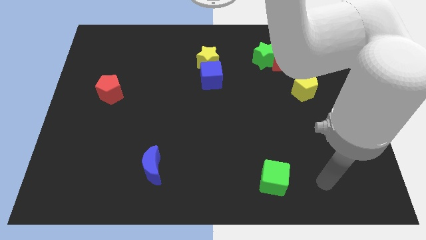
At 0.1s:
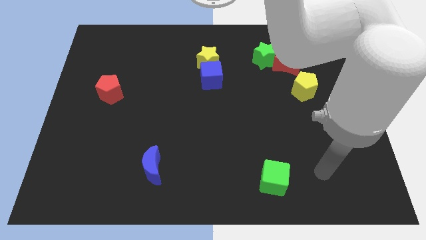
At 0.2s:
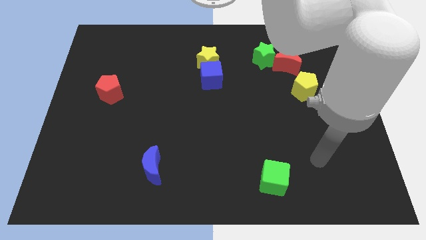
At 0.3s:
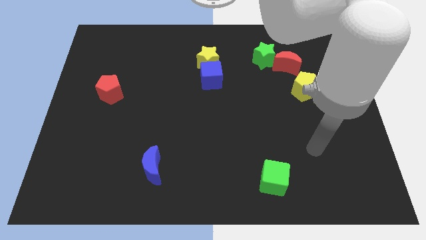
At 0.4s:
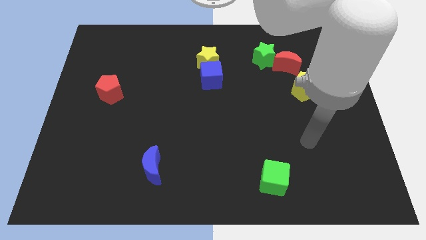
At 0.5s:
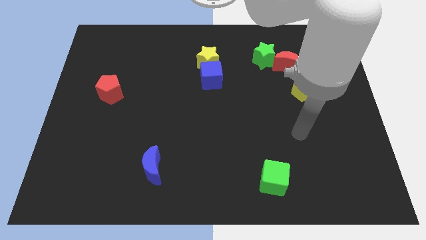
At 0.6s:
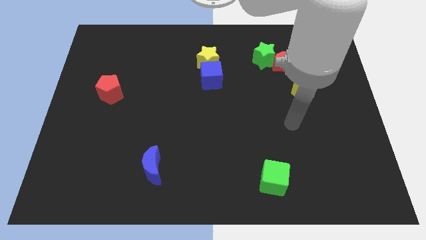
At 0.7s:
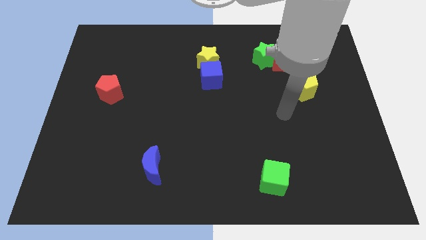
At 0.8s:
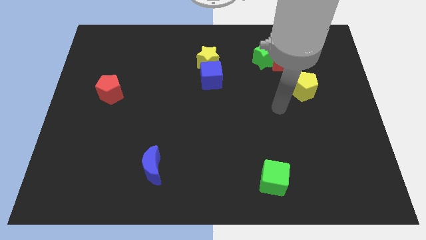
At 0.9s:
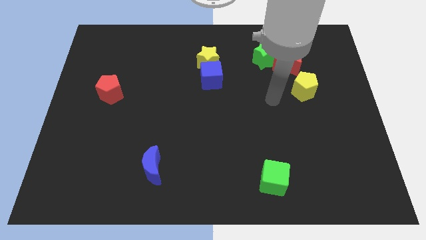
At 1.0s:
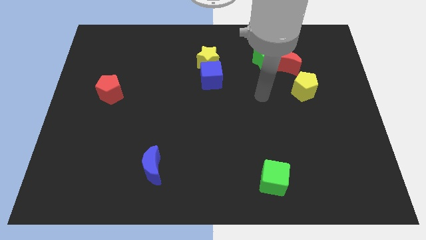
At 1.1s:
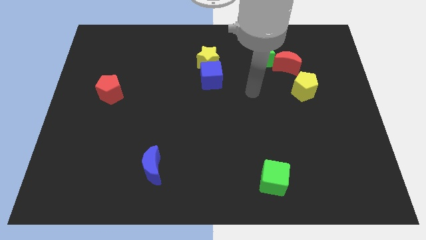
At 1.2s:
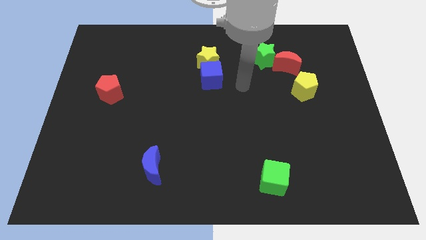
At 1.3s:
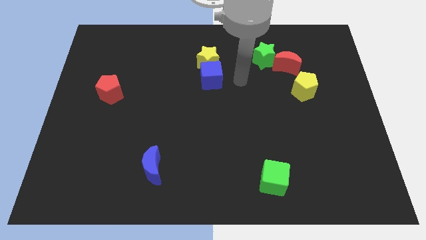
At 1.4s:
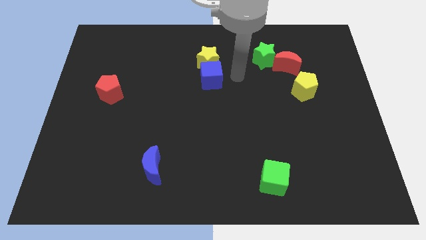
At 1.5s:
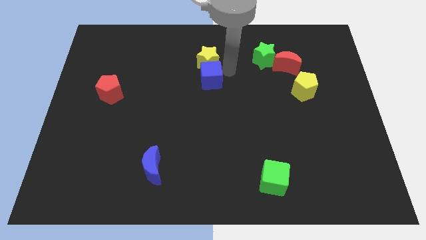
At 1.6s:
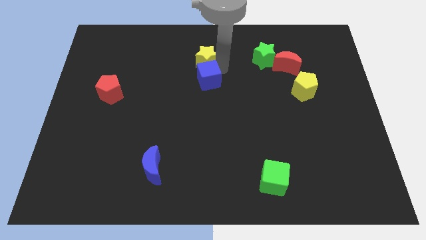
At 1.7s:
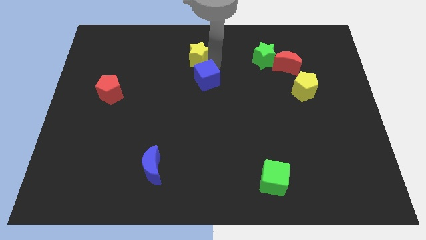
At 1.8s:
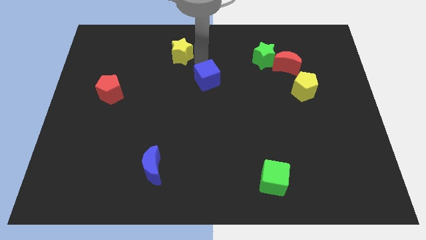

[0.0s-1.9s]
move the blue cube away from the yellow star

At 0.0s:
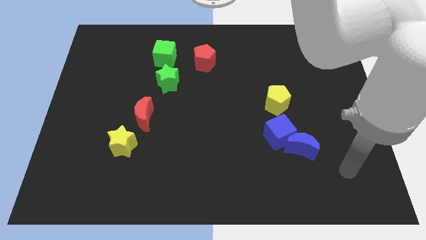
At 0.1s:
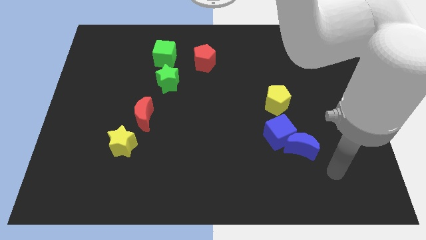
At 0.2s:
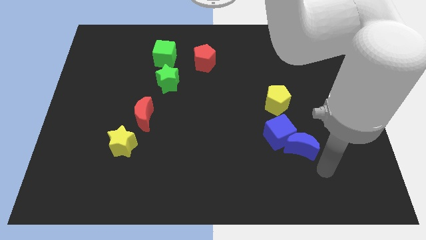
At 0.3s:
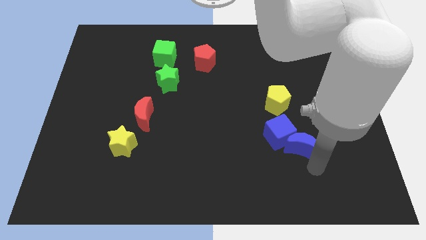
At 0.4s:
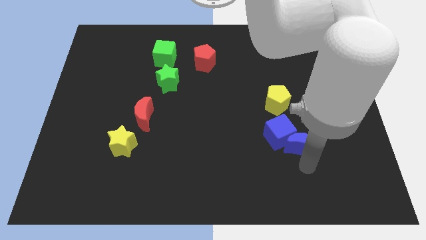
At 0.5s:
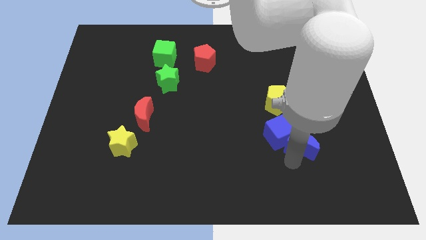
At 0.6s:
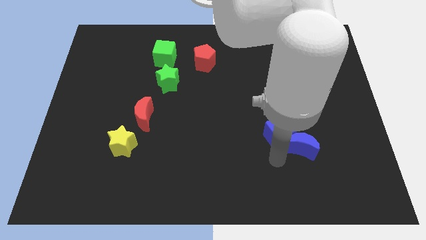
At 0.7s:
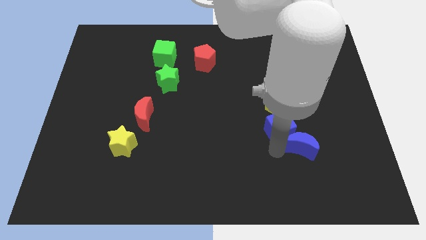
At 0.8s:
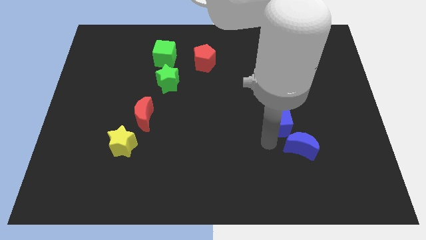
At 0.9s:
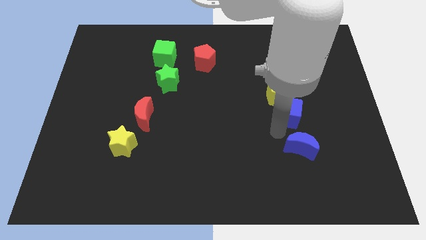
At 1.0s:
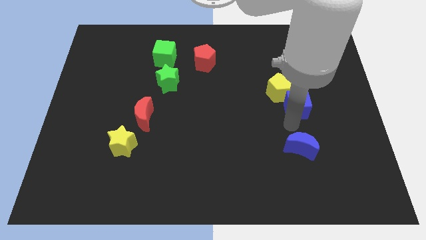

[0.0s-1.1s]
move the blue moon away from the blue cube

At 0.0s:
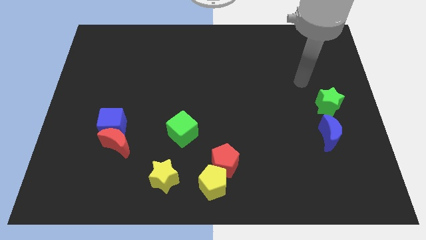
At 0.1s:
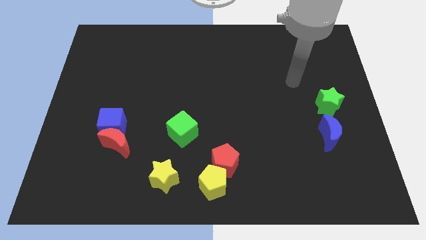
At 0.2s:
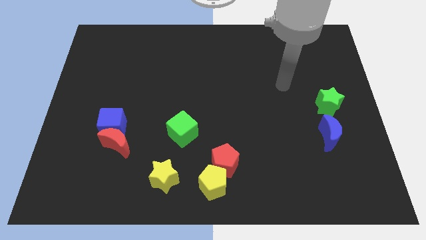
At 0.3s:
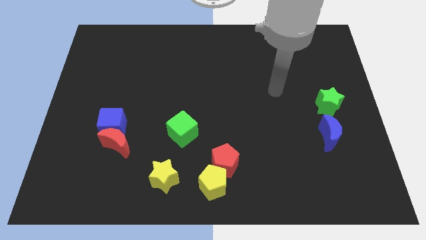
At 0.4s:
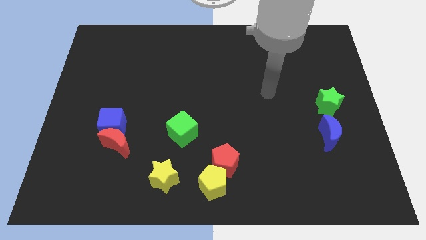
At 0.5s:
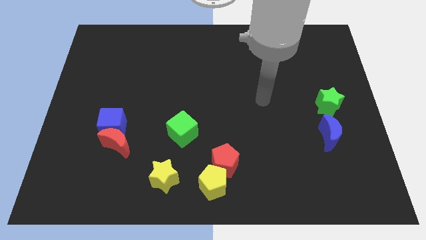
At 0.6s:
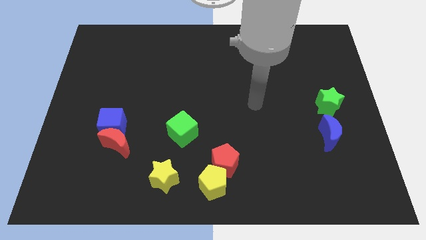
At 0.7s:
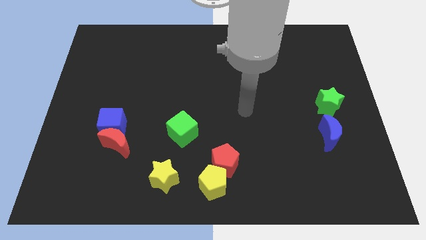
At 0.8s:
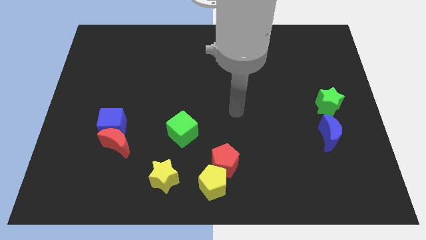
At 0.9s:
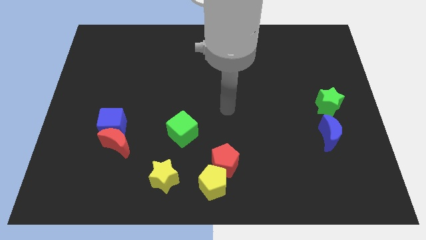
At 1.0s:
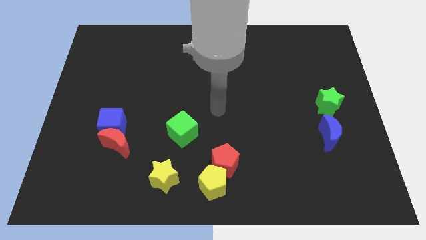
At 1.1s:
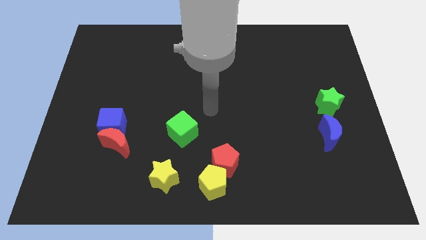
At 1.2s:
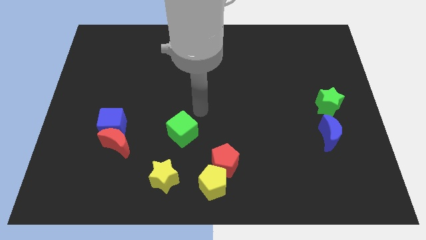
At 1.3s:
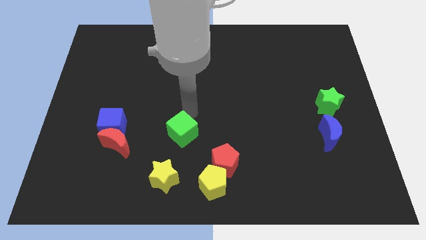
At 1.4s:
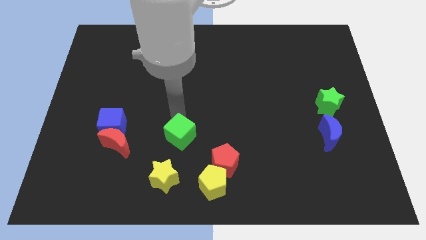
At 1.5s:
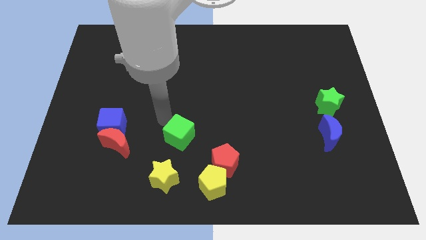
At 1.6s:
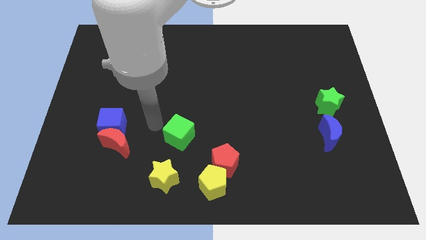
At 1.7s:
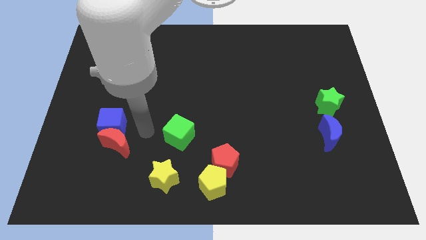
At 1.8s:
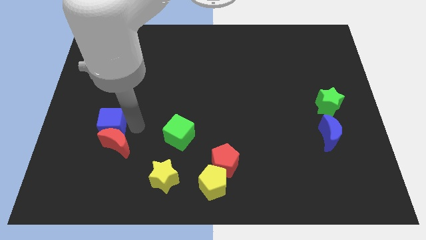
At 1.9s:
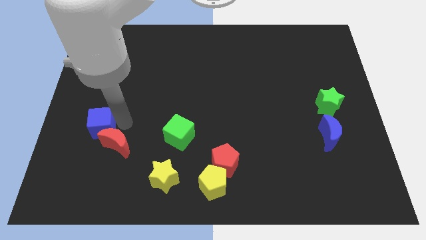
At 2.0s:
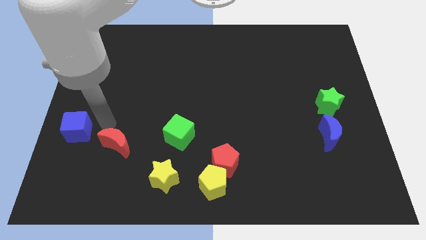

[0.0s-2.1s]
move the red moon away from the blue cube

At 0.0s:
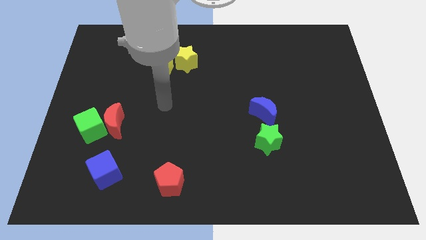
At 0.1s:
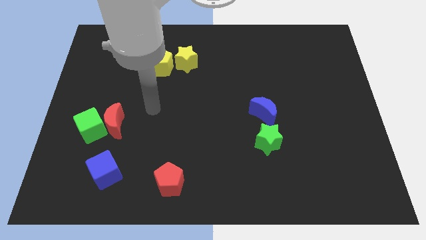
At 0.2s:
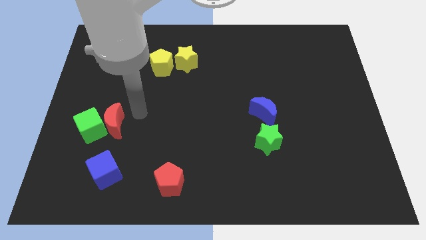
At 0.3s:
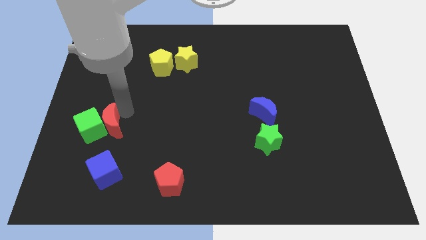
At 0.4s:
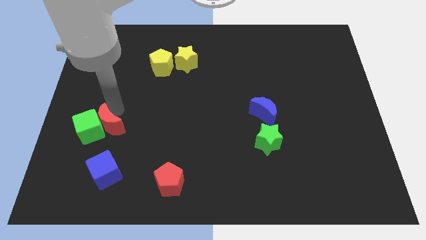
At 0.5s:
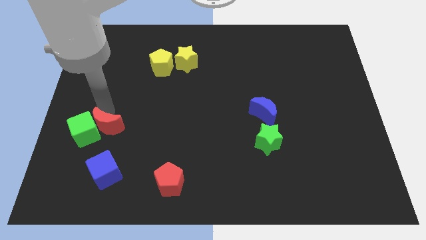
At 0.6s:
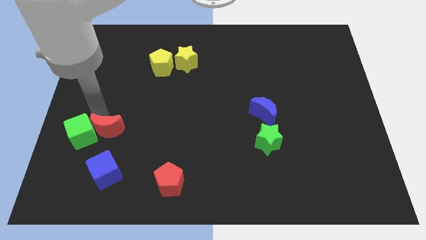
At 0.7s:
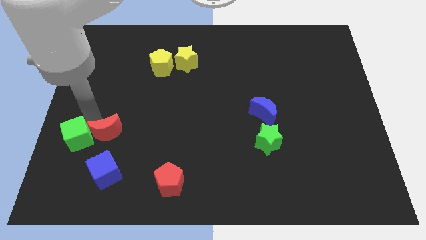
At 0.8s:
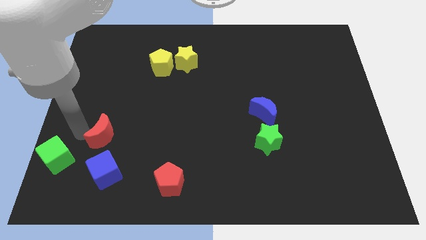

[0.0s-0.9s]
pull the red moon apart from the green cube

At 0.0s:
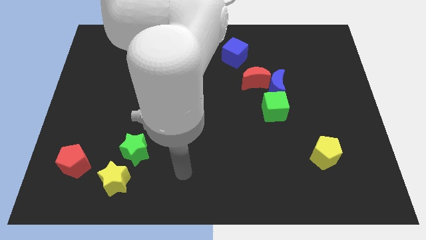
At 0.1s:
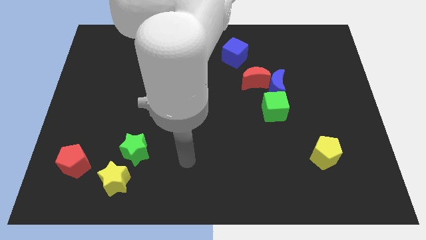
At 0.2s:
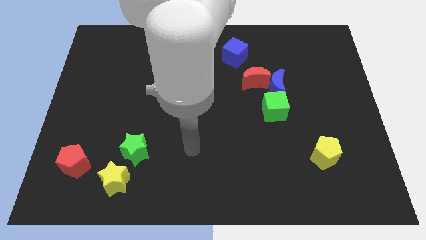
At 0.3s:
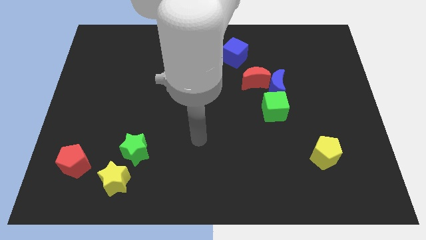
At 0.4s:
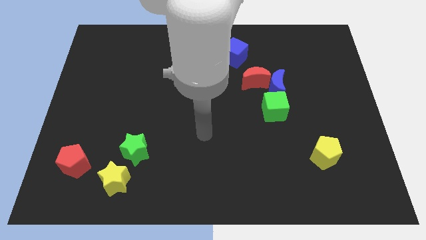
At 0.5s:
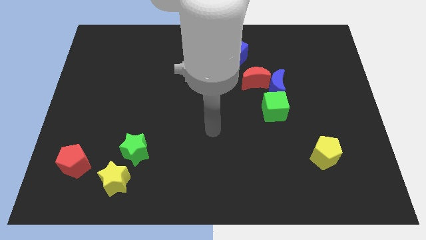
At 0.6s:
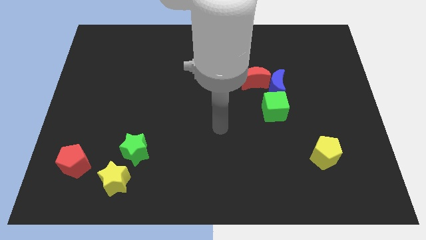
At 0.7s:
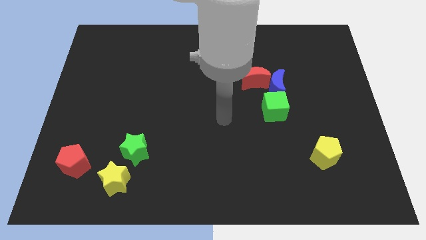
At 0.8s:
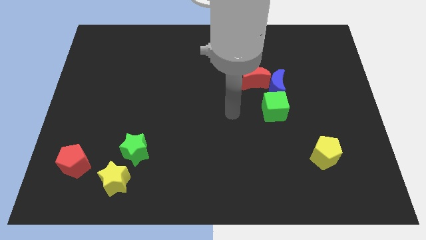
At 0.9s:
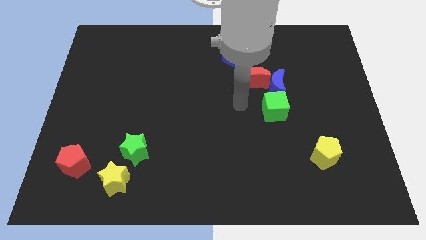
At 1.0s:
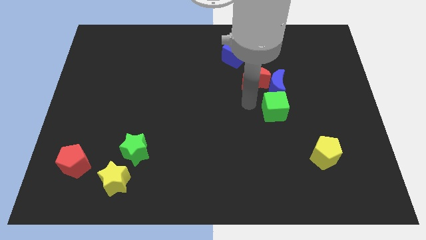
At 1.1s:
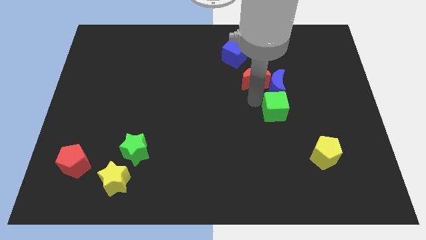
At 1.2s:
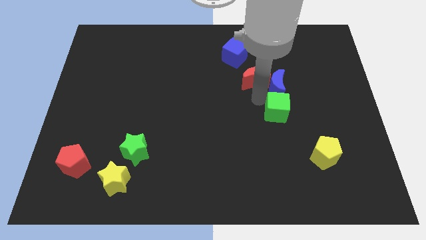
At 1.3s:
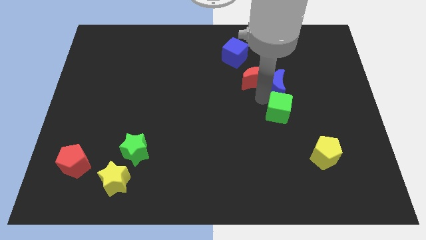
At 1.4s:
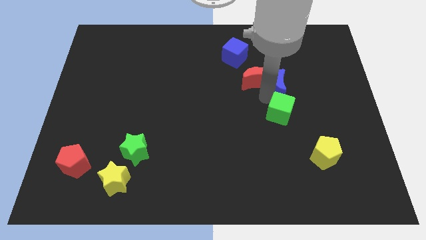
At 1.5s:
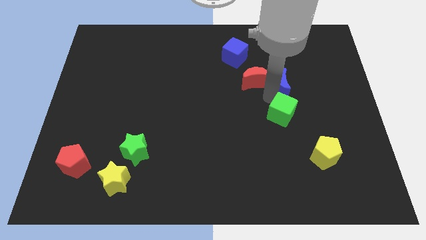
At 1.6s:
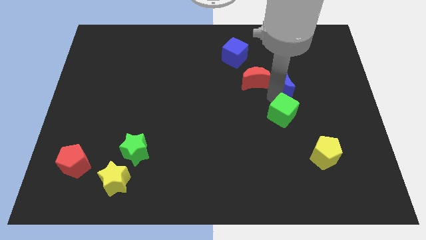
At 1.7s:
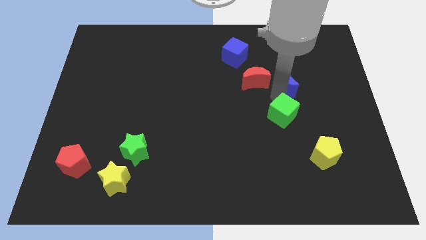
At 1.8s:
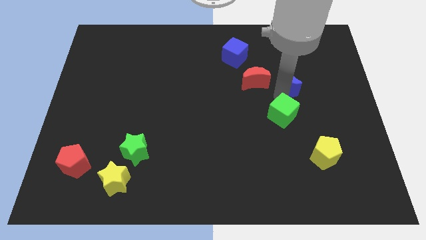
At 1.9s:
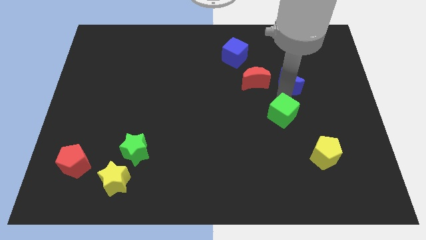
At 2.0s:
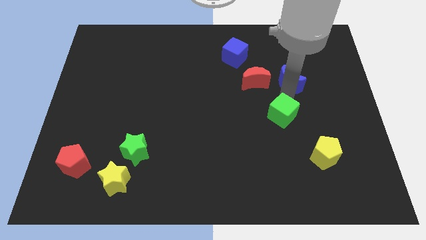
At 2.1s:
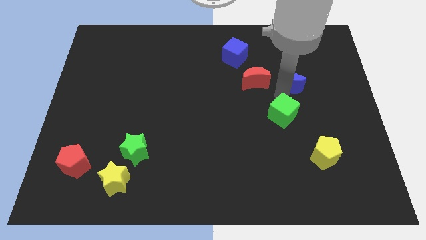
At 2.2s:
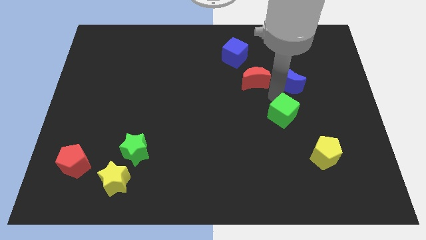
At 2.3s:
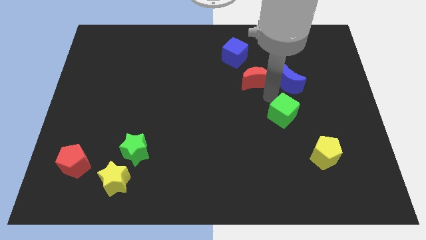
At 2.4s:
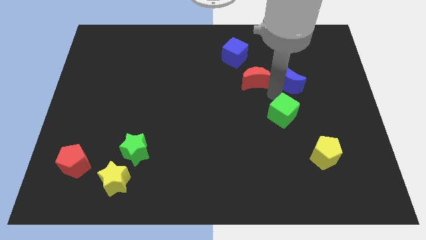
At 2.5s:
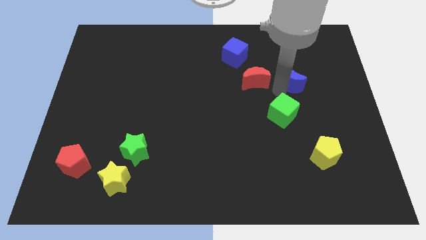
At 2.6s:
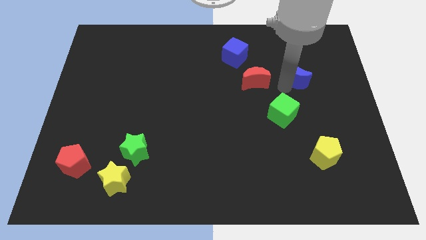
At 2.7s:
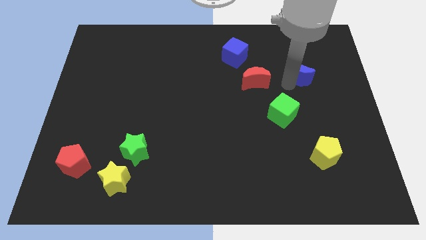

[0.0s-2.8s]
move the blue moon away from the red moon and green cube

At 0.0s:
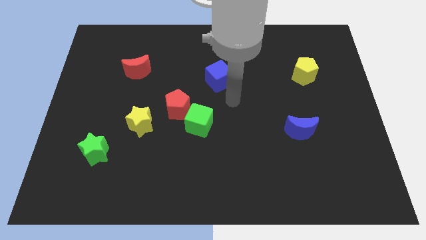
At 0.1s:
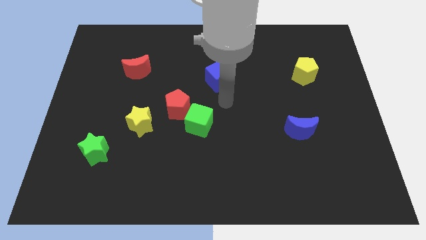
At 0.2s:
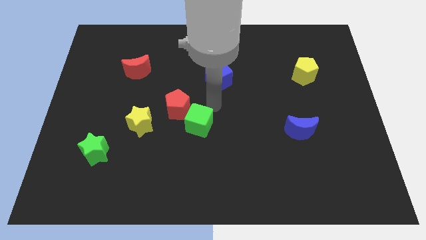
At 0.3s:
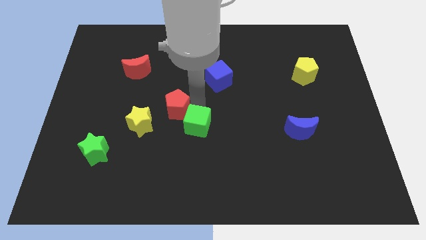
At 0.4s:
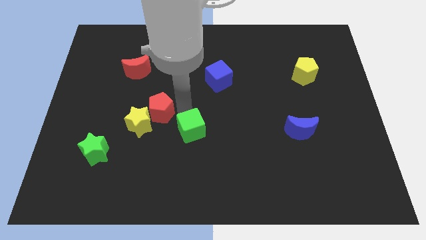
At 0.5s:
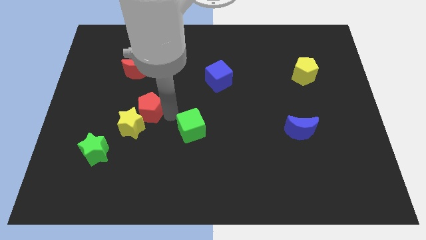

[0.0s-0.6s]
move the green cube away from the red pentagon
